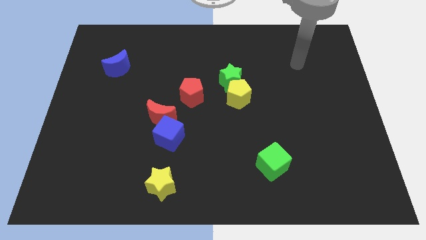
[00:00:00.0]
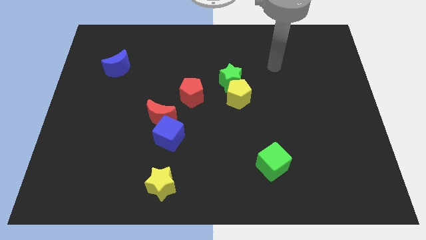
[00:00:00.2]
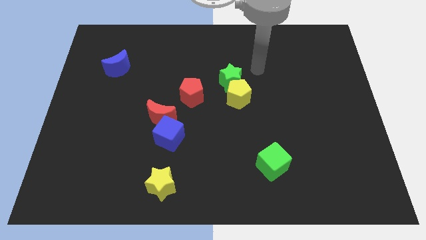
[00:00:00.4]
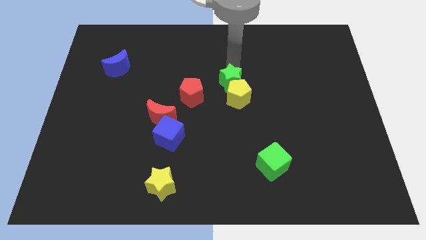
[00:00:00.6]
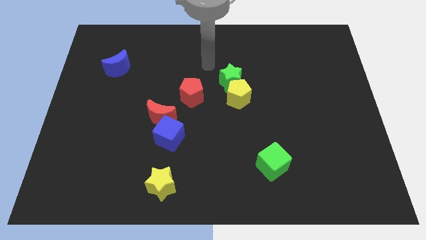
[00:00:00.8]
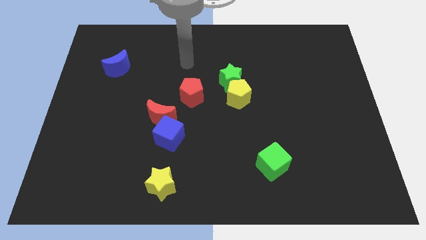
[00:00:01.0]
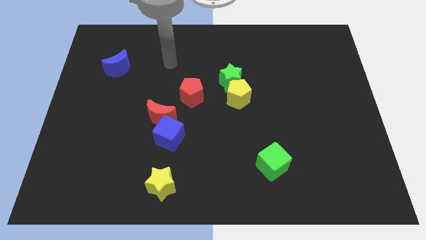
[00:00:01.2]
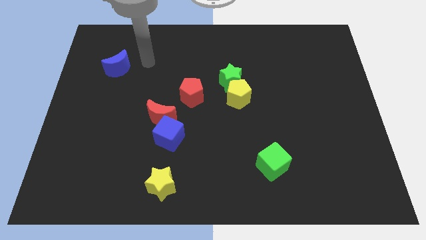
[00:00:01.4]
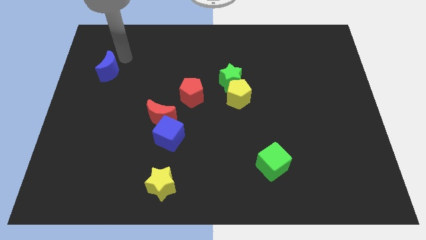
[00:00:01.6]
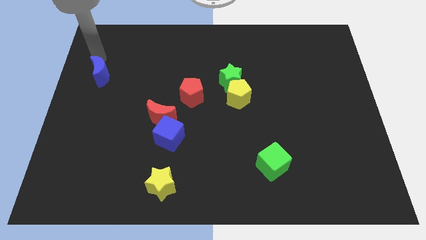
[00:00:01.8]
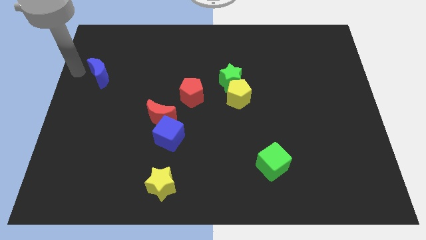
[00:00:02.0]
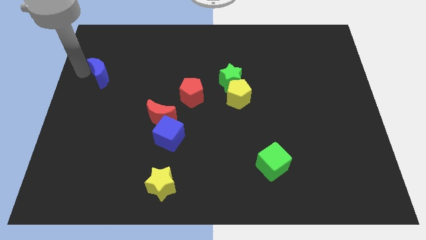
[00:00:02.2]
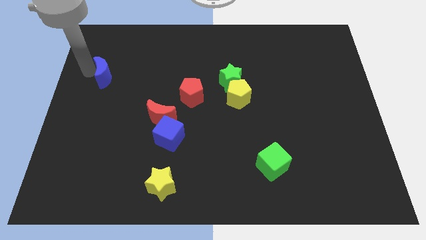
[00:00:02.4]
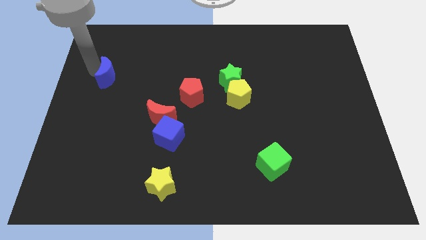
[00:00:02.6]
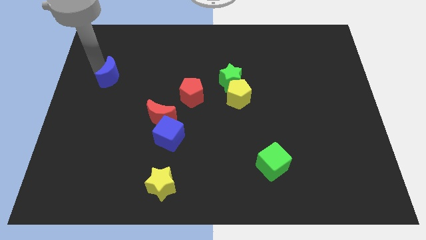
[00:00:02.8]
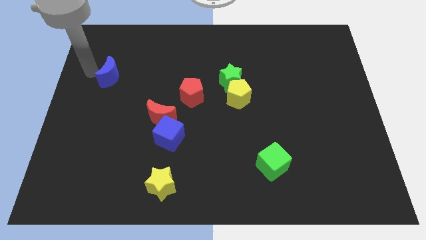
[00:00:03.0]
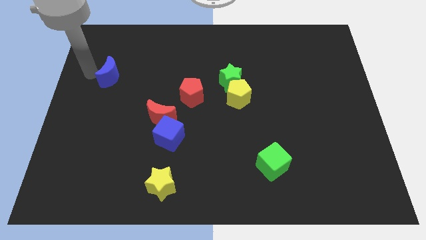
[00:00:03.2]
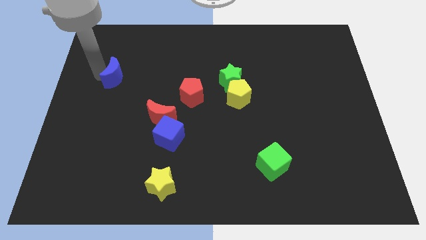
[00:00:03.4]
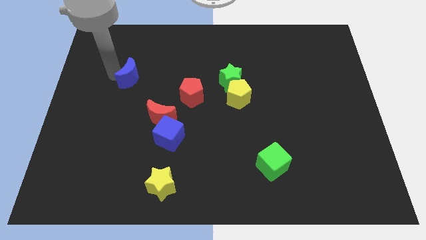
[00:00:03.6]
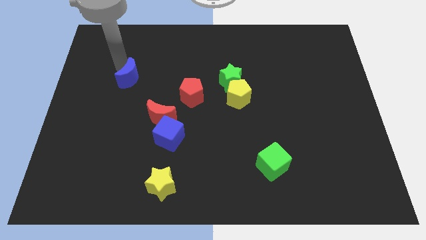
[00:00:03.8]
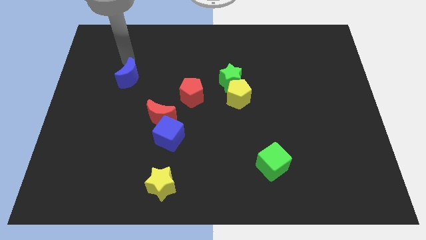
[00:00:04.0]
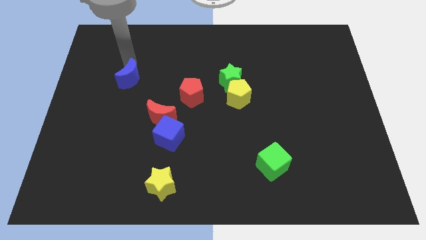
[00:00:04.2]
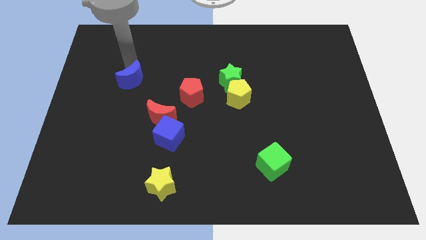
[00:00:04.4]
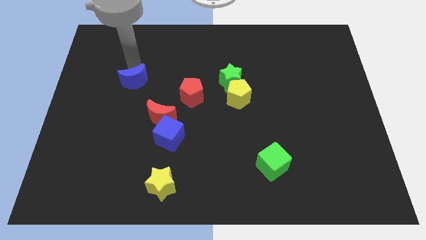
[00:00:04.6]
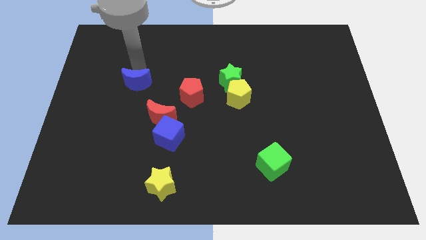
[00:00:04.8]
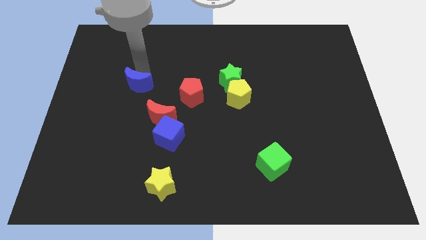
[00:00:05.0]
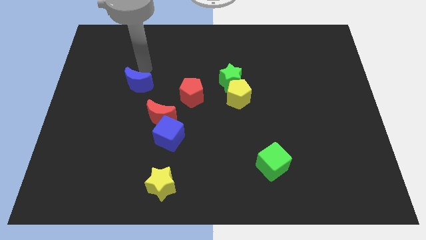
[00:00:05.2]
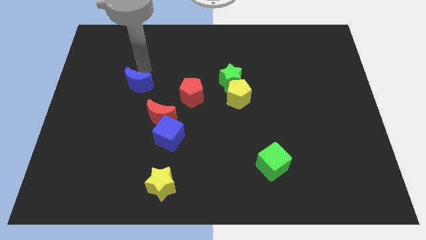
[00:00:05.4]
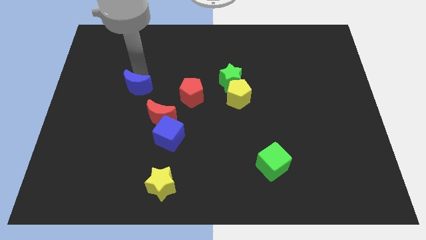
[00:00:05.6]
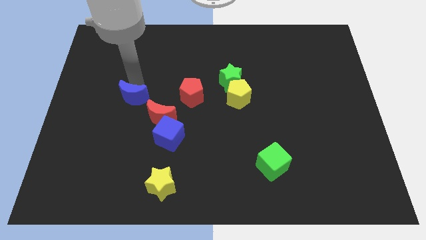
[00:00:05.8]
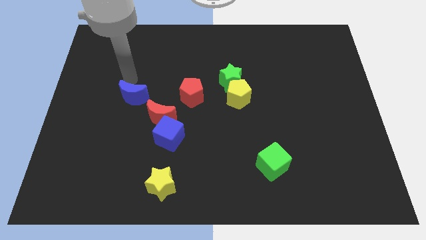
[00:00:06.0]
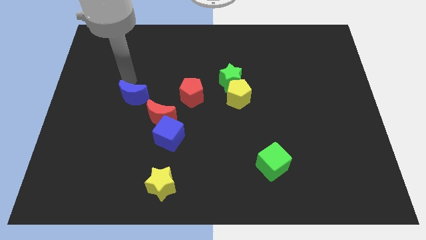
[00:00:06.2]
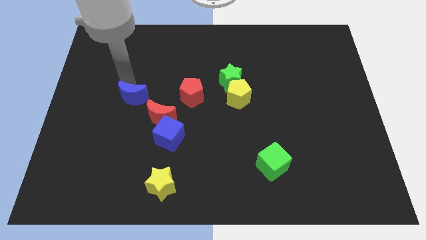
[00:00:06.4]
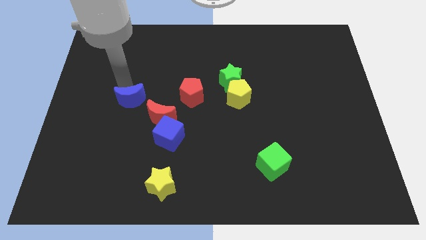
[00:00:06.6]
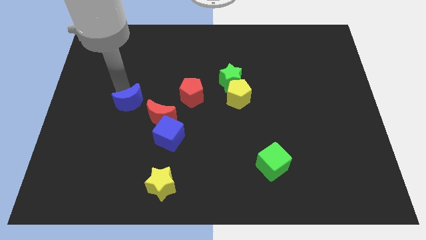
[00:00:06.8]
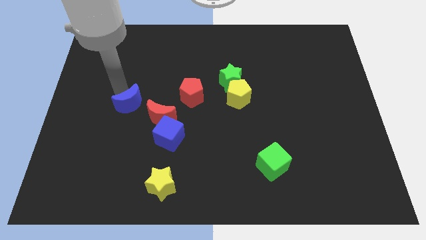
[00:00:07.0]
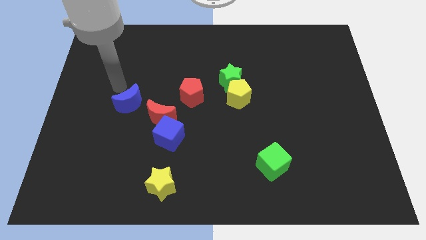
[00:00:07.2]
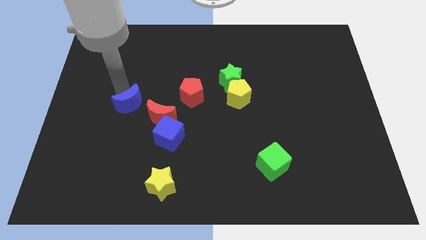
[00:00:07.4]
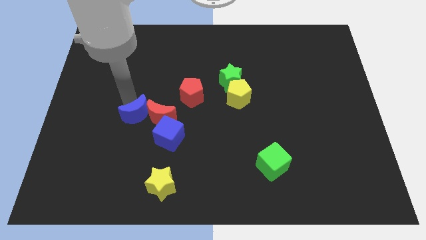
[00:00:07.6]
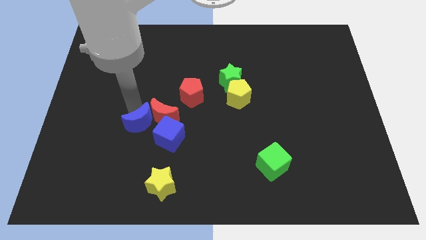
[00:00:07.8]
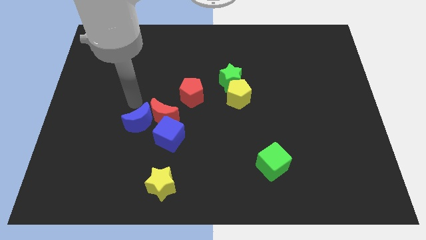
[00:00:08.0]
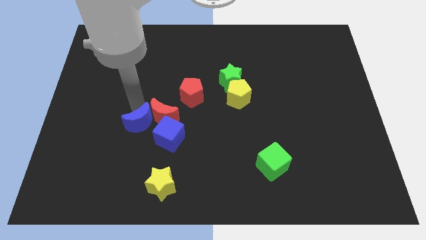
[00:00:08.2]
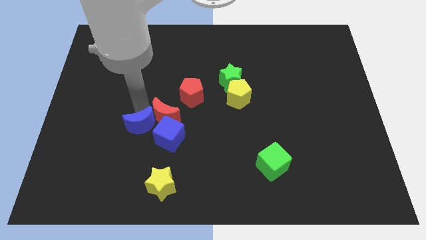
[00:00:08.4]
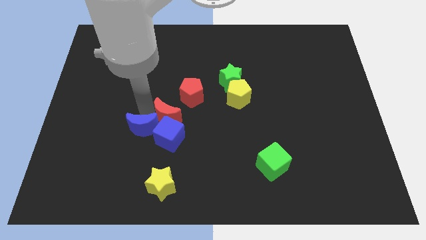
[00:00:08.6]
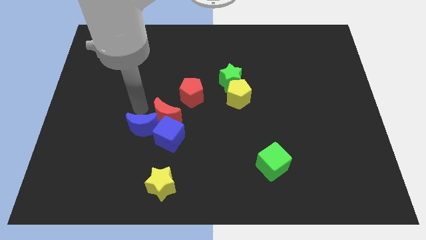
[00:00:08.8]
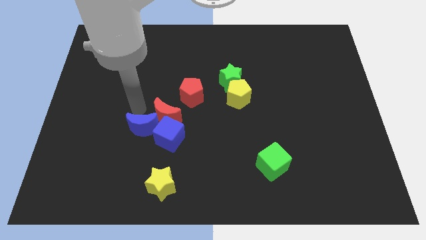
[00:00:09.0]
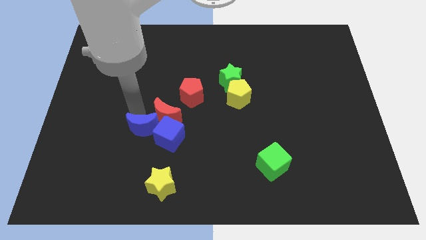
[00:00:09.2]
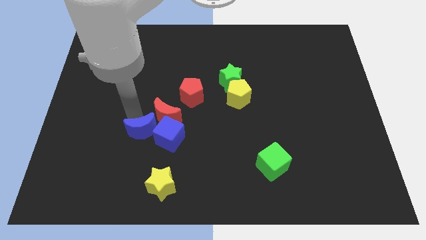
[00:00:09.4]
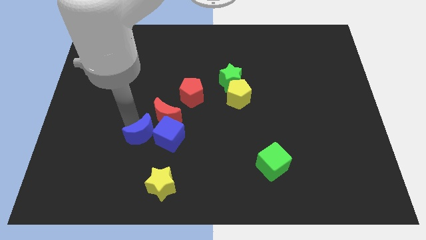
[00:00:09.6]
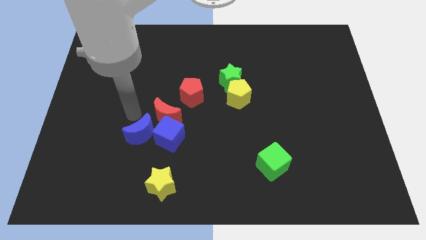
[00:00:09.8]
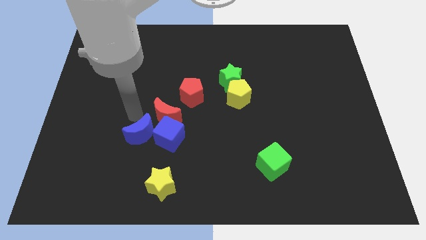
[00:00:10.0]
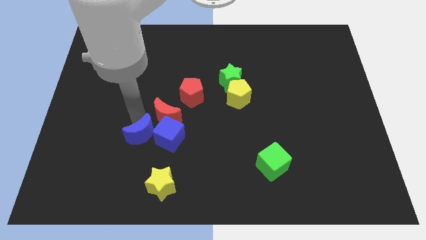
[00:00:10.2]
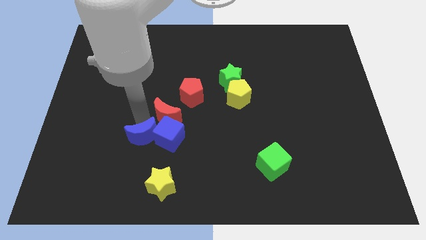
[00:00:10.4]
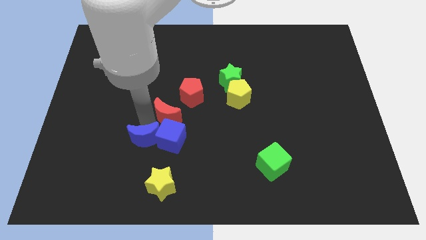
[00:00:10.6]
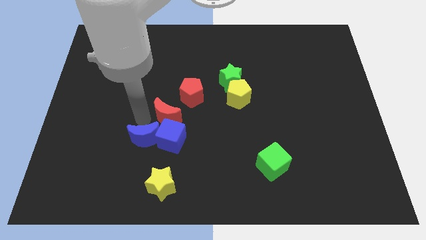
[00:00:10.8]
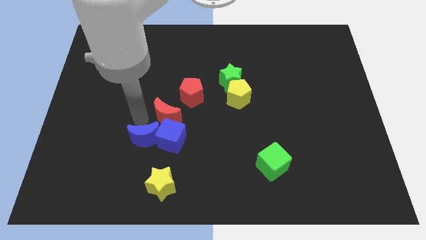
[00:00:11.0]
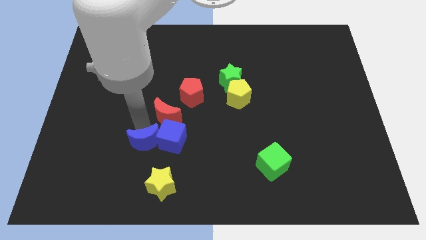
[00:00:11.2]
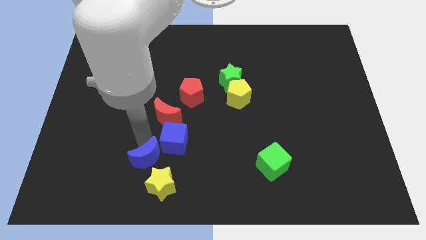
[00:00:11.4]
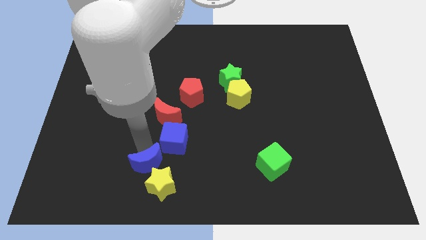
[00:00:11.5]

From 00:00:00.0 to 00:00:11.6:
put the blue moon next to the yellow star

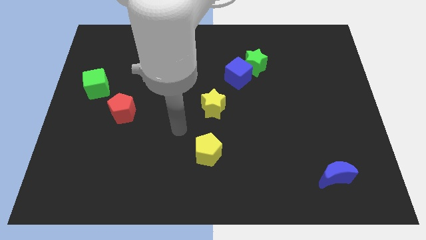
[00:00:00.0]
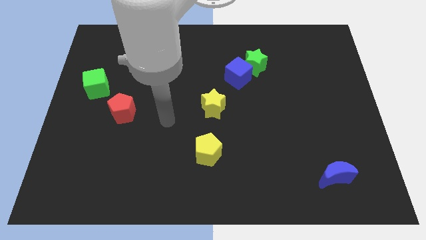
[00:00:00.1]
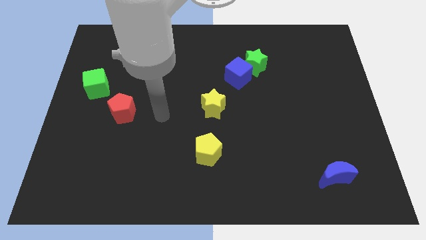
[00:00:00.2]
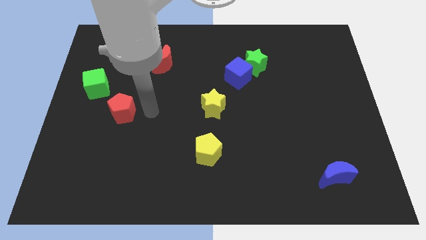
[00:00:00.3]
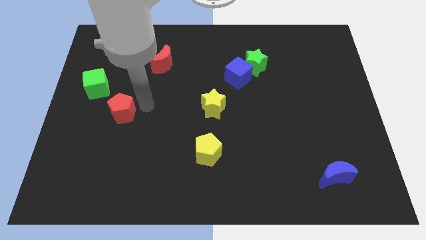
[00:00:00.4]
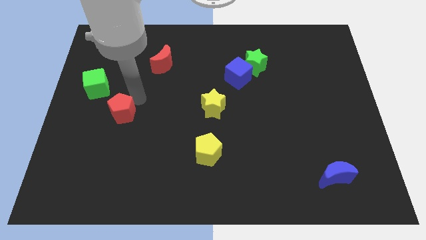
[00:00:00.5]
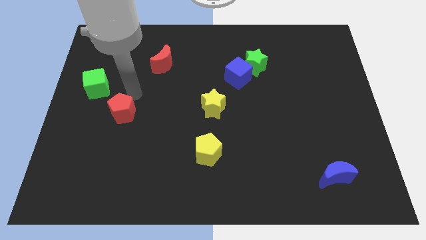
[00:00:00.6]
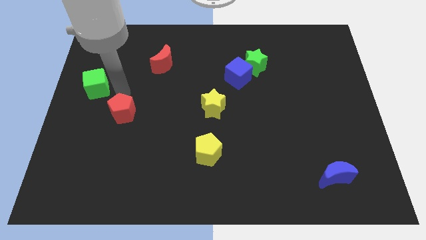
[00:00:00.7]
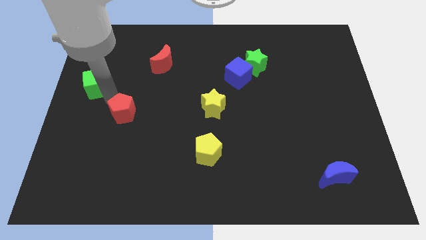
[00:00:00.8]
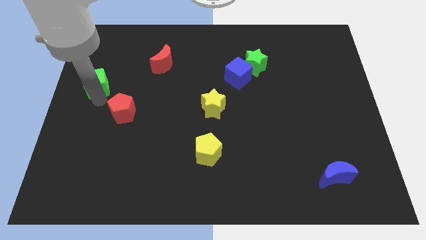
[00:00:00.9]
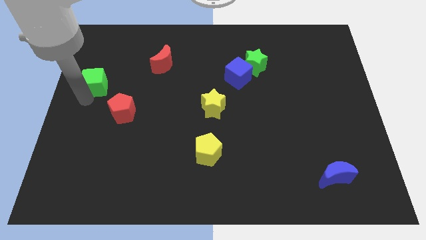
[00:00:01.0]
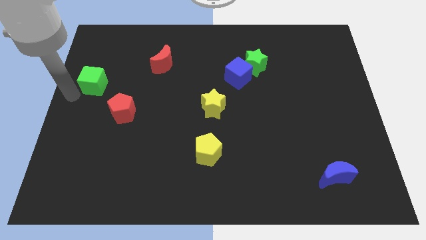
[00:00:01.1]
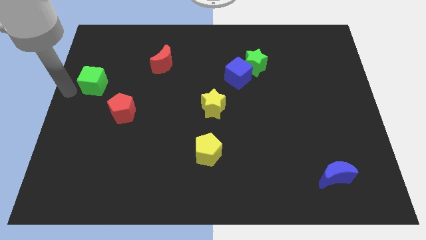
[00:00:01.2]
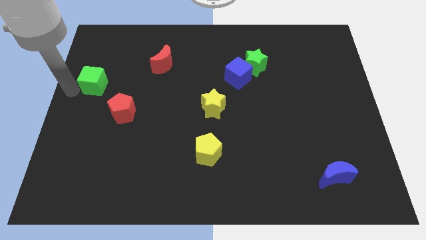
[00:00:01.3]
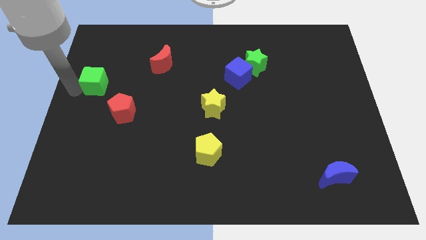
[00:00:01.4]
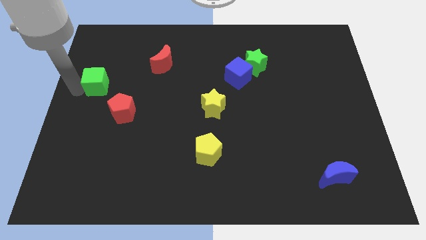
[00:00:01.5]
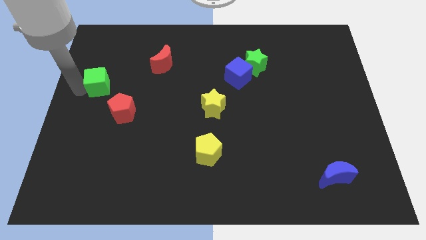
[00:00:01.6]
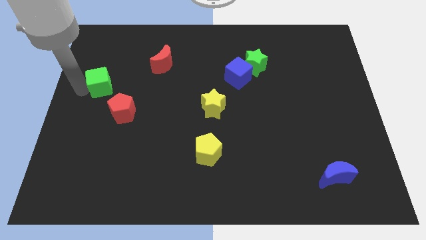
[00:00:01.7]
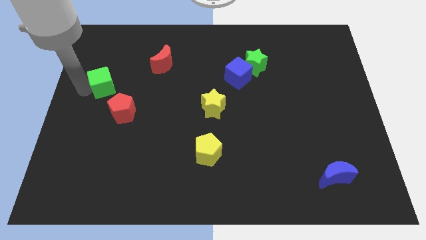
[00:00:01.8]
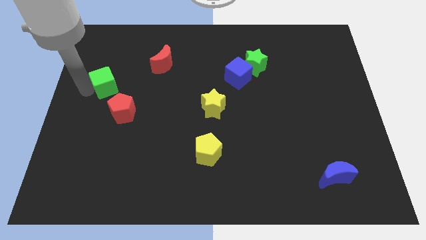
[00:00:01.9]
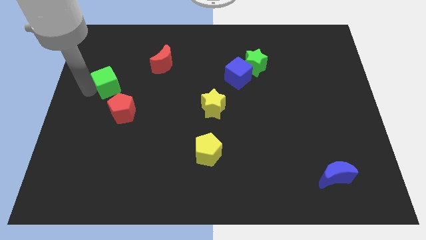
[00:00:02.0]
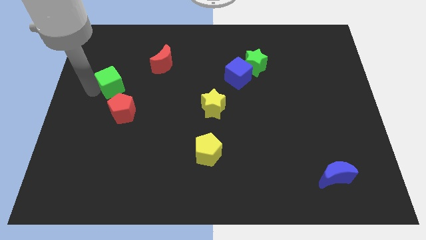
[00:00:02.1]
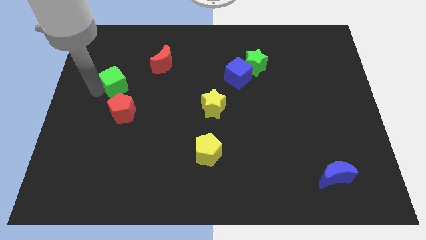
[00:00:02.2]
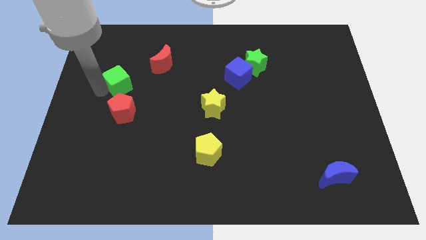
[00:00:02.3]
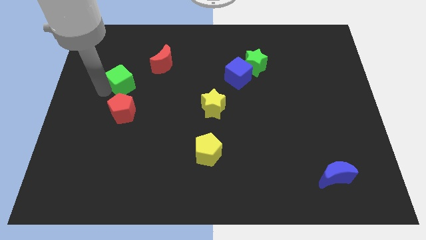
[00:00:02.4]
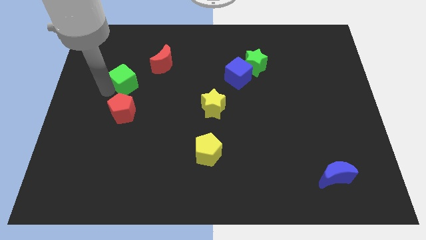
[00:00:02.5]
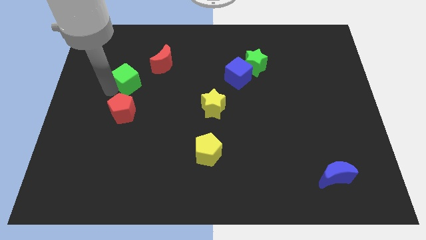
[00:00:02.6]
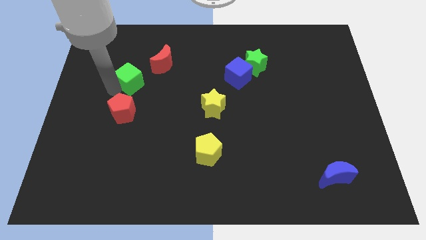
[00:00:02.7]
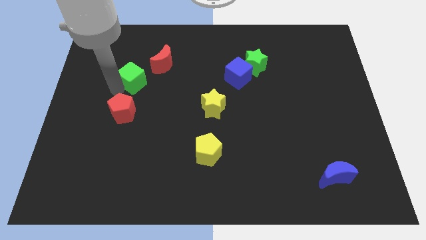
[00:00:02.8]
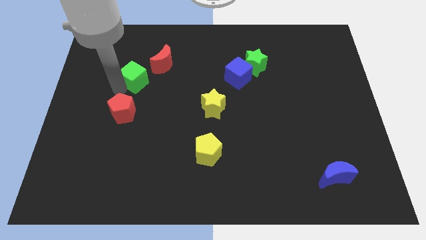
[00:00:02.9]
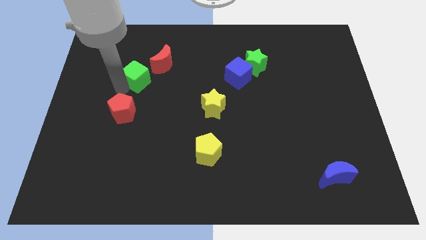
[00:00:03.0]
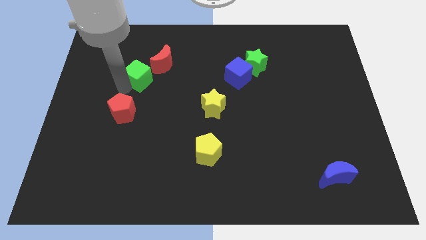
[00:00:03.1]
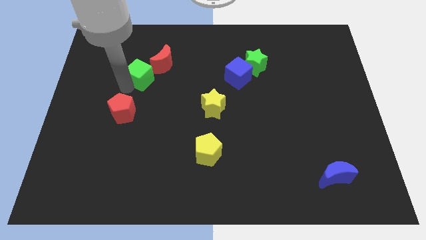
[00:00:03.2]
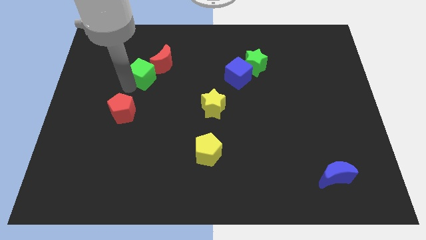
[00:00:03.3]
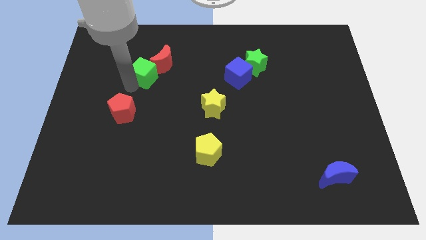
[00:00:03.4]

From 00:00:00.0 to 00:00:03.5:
slide the green cube next to the red moon
